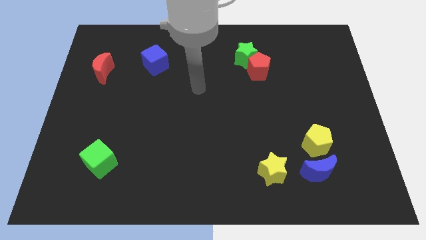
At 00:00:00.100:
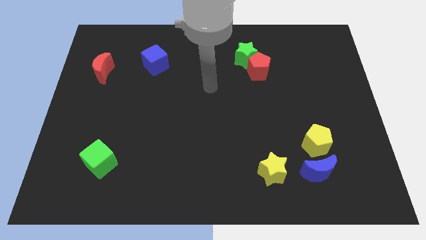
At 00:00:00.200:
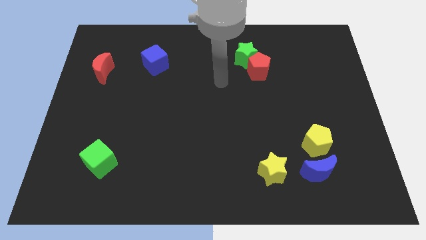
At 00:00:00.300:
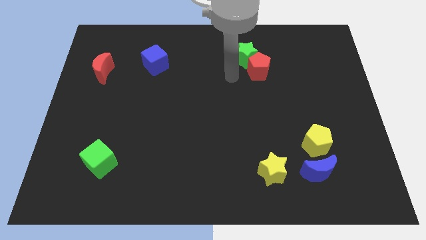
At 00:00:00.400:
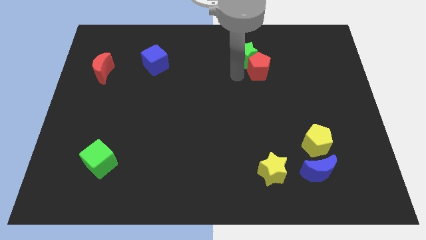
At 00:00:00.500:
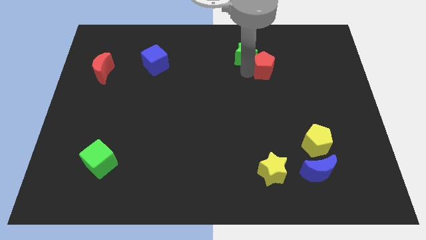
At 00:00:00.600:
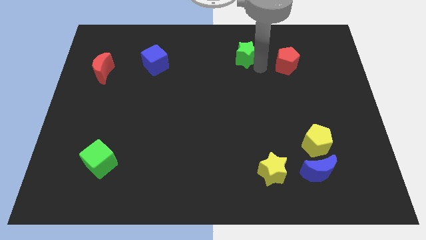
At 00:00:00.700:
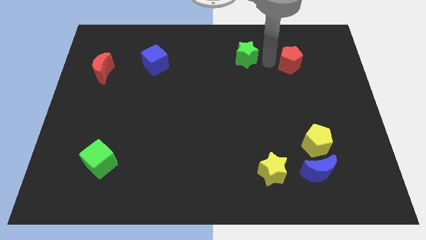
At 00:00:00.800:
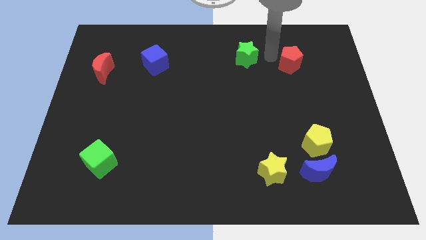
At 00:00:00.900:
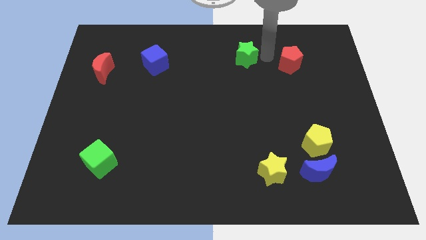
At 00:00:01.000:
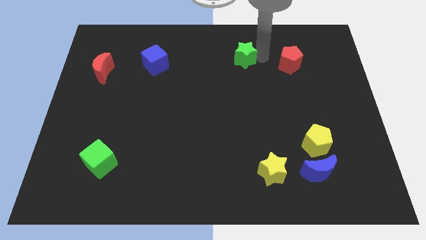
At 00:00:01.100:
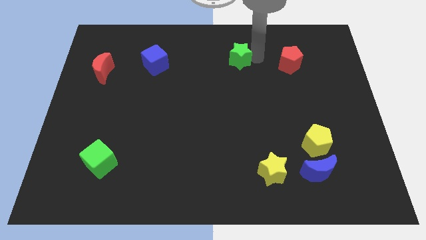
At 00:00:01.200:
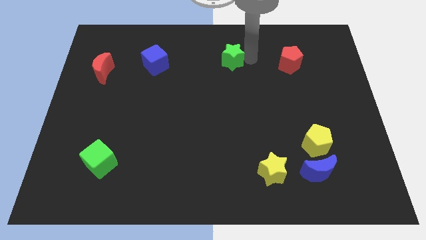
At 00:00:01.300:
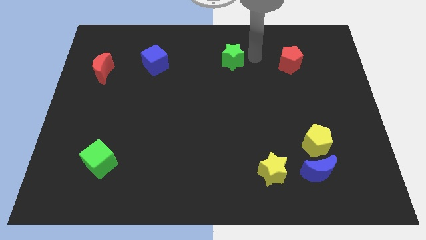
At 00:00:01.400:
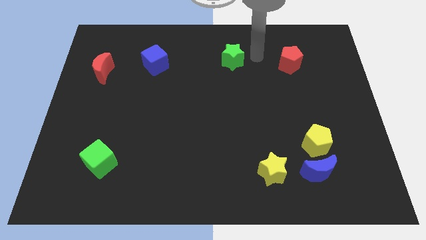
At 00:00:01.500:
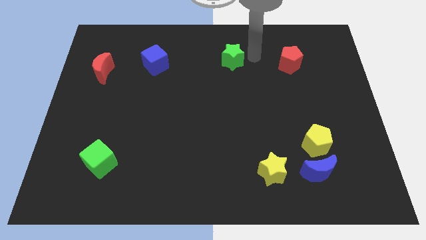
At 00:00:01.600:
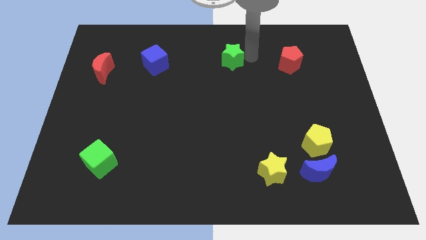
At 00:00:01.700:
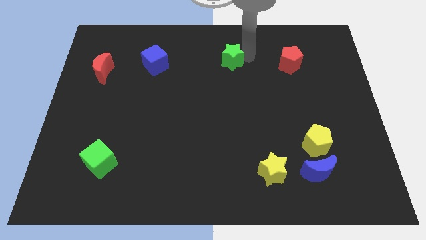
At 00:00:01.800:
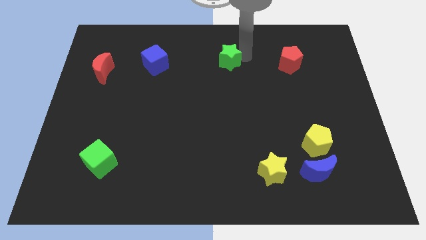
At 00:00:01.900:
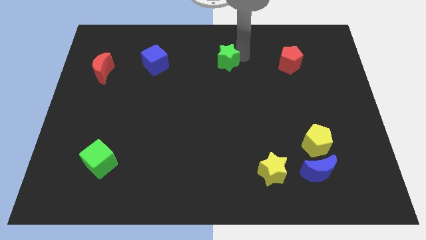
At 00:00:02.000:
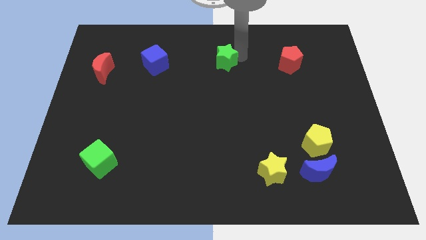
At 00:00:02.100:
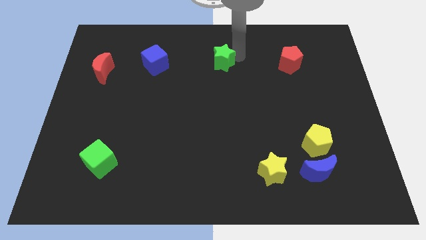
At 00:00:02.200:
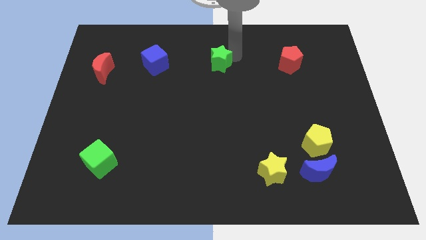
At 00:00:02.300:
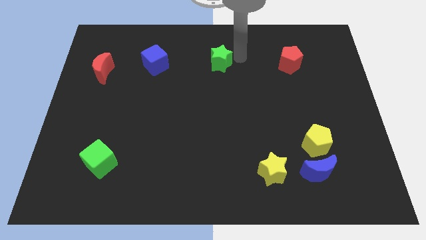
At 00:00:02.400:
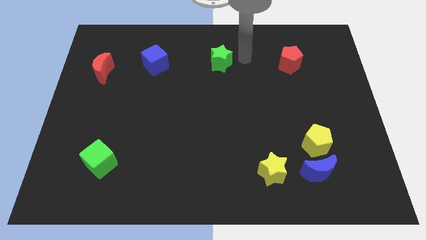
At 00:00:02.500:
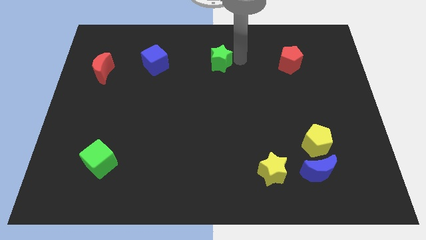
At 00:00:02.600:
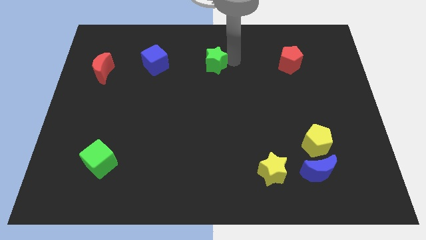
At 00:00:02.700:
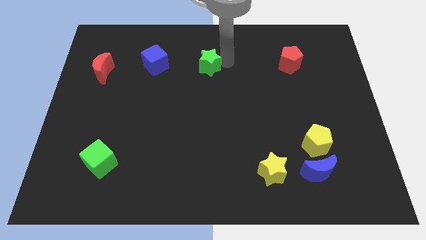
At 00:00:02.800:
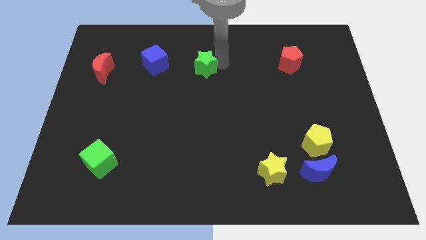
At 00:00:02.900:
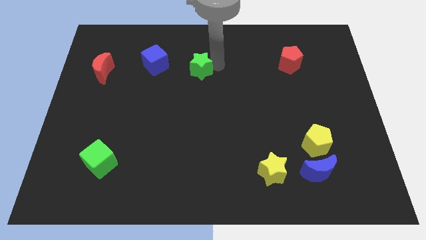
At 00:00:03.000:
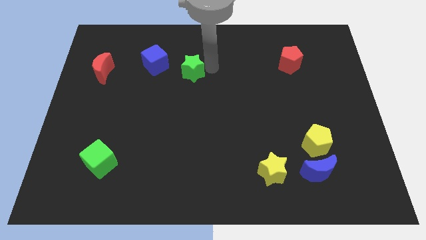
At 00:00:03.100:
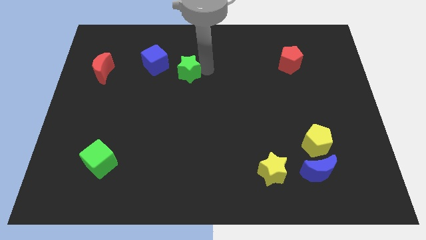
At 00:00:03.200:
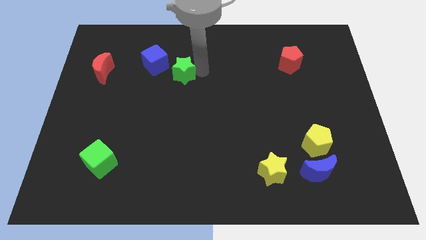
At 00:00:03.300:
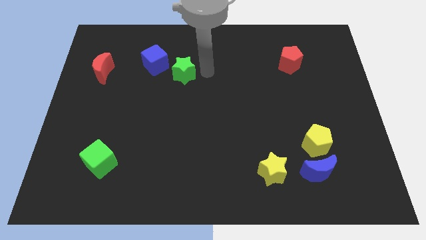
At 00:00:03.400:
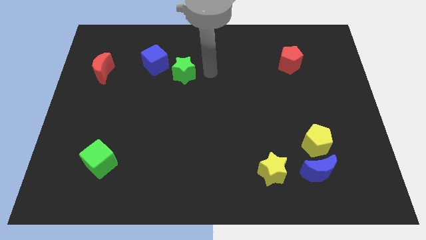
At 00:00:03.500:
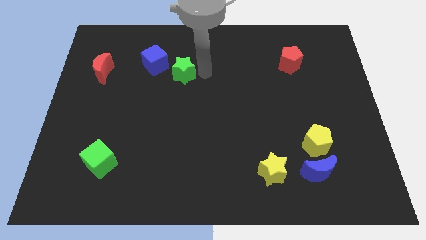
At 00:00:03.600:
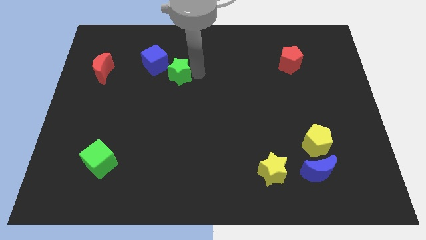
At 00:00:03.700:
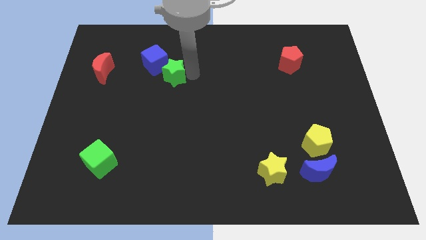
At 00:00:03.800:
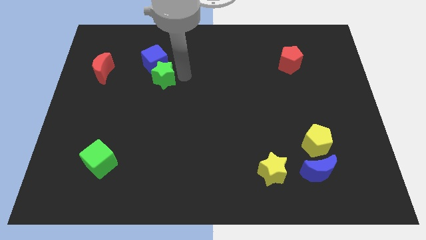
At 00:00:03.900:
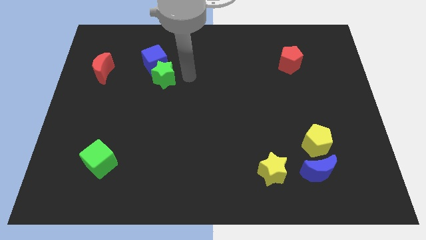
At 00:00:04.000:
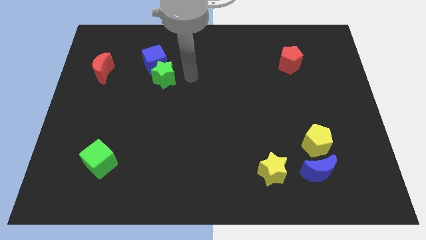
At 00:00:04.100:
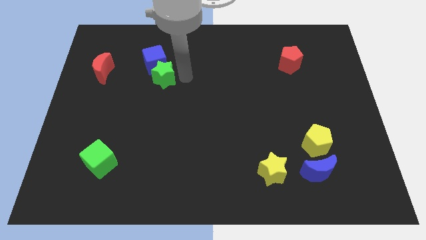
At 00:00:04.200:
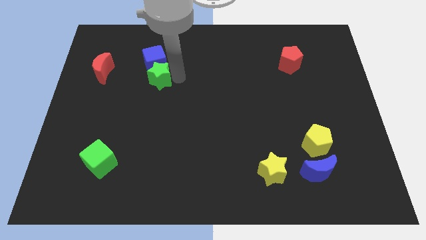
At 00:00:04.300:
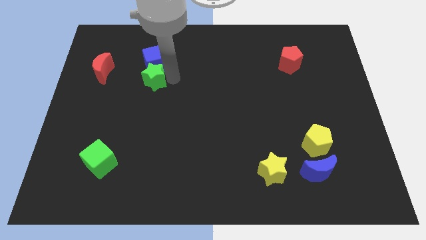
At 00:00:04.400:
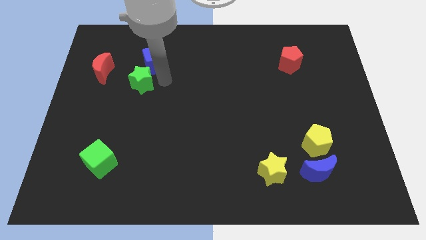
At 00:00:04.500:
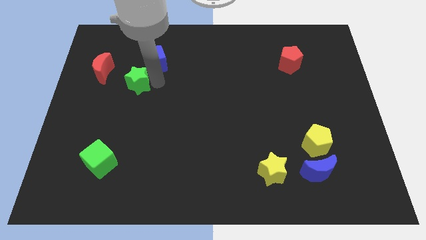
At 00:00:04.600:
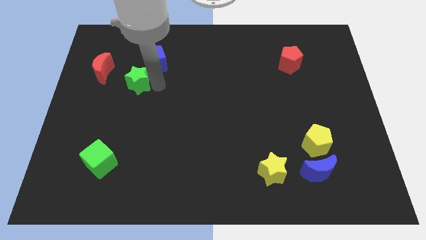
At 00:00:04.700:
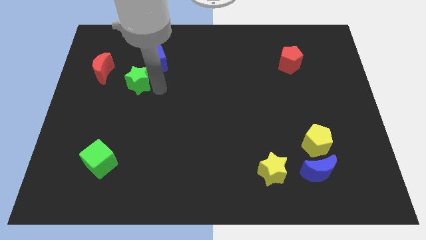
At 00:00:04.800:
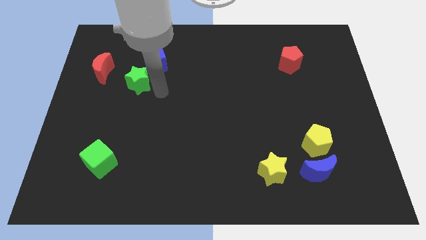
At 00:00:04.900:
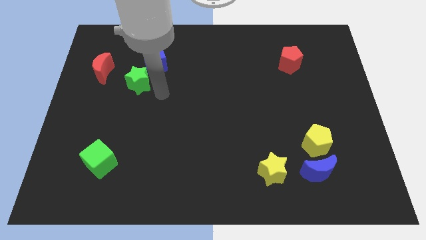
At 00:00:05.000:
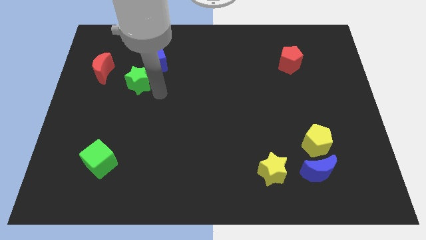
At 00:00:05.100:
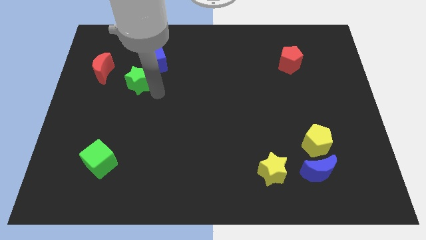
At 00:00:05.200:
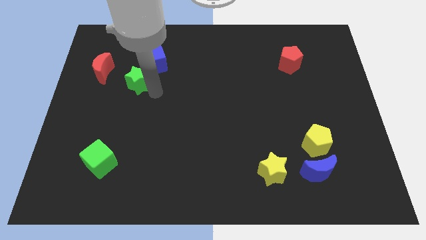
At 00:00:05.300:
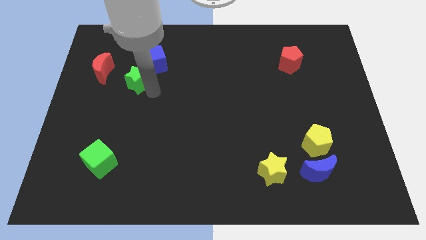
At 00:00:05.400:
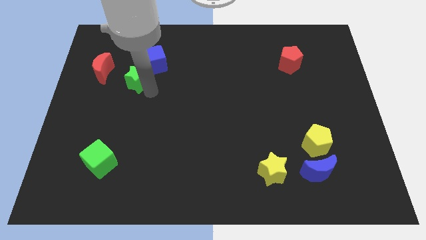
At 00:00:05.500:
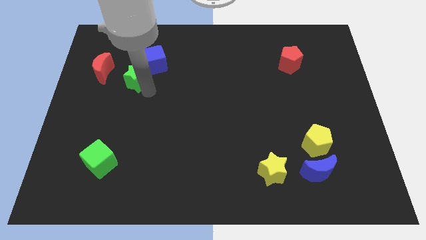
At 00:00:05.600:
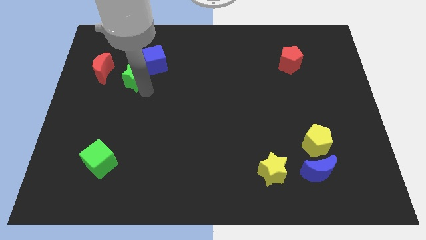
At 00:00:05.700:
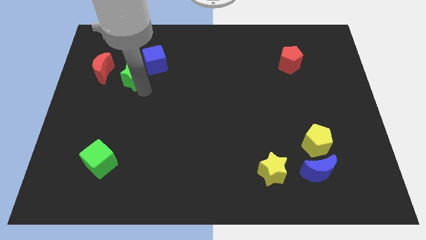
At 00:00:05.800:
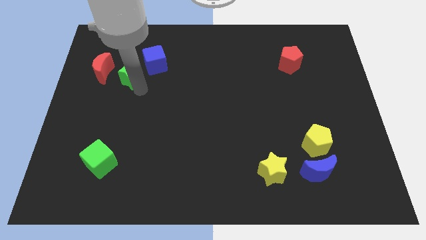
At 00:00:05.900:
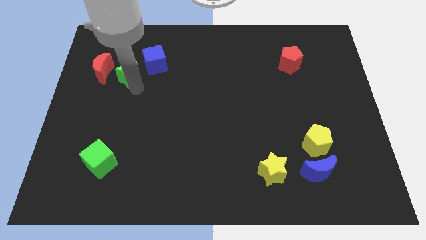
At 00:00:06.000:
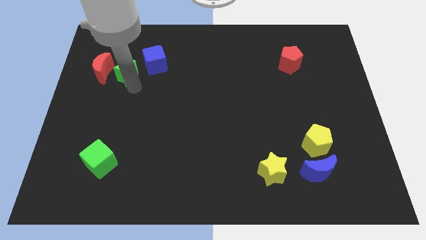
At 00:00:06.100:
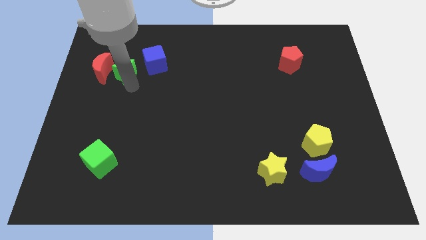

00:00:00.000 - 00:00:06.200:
put the green star close to the red moon

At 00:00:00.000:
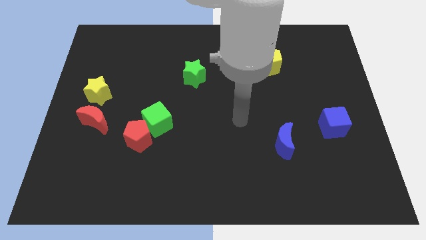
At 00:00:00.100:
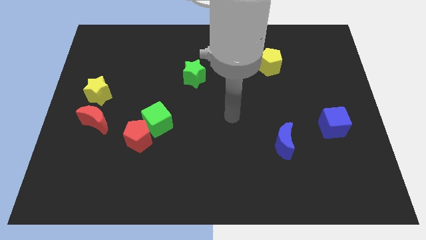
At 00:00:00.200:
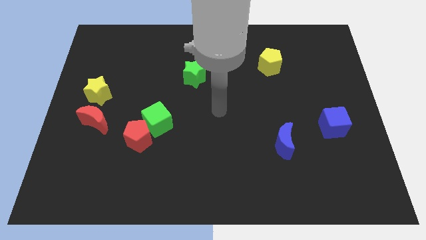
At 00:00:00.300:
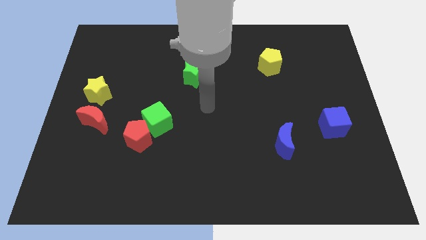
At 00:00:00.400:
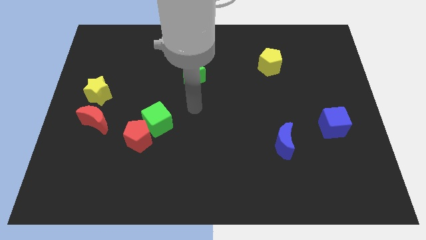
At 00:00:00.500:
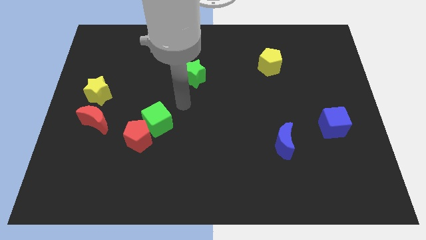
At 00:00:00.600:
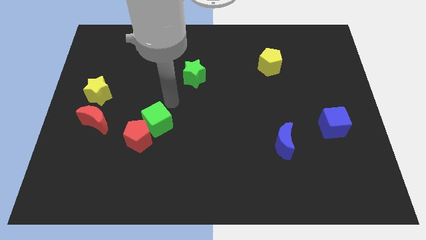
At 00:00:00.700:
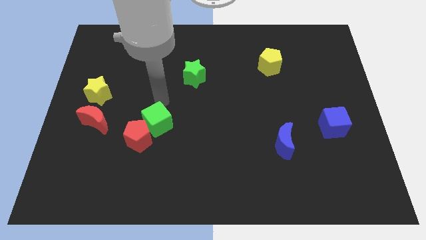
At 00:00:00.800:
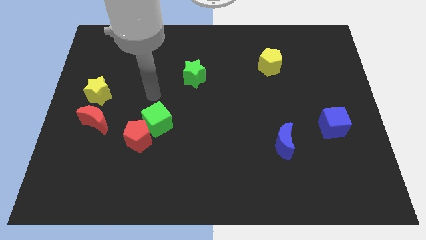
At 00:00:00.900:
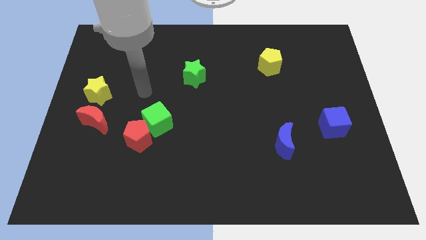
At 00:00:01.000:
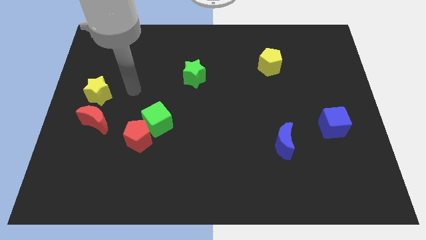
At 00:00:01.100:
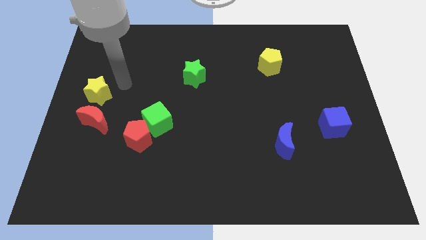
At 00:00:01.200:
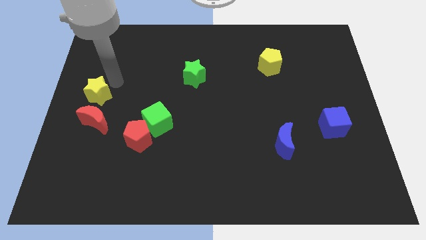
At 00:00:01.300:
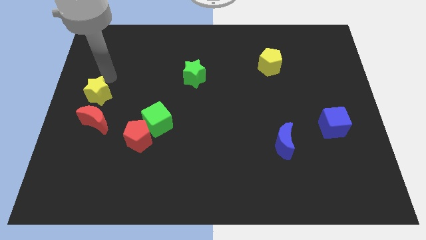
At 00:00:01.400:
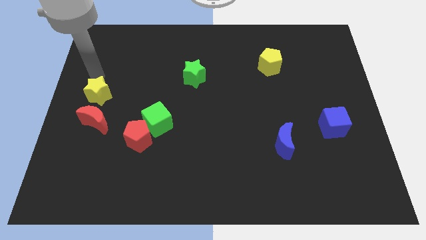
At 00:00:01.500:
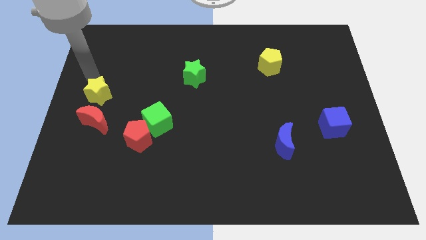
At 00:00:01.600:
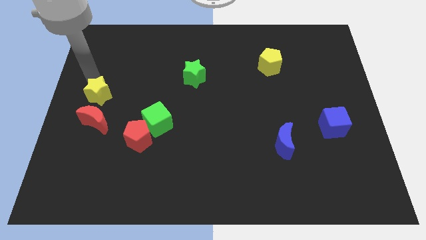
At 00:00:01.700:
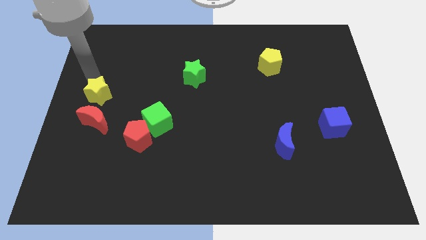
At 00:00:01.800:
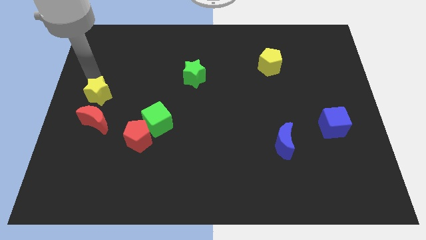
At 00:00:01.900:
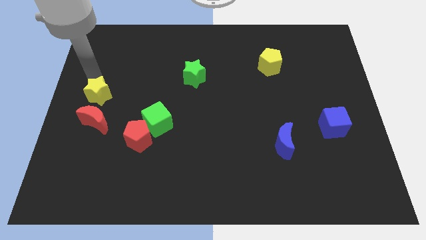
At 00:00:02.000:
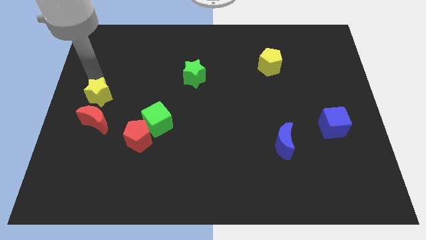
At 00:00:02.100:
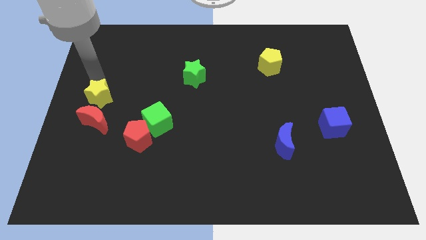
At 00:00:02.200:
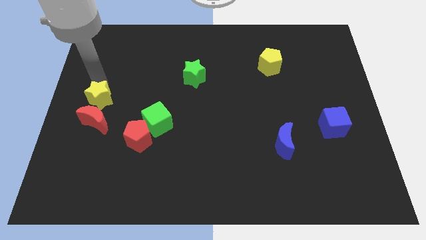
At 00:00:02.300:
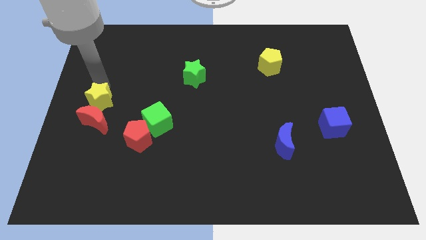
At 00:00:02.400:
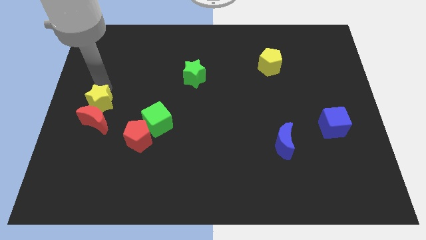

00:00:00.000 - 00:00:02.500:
slide the yellow star next to the red moon
